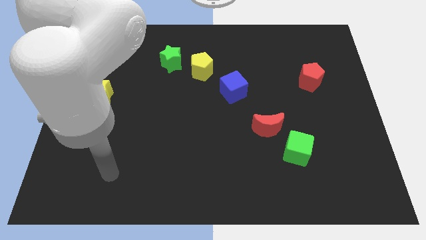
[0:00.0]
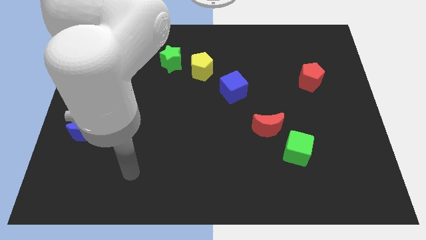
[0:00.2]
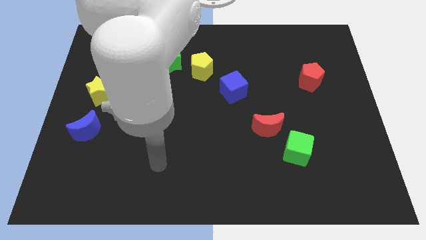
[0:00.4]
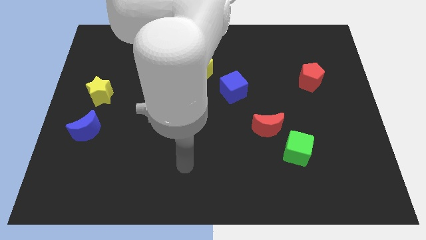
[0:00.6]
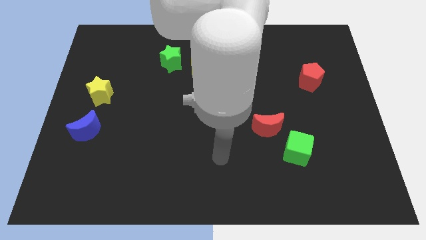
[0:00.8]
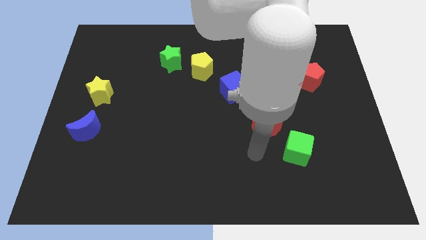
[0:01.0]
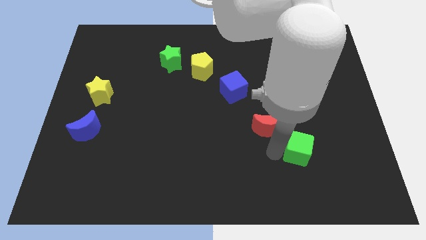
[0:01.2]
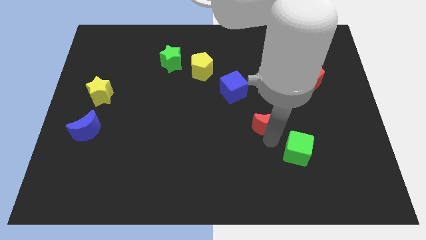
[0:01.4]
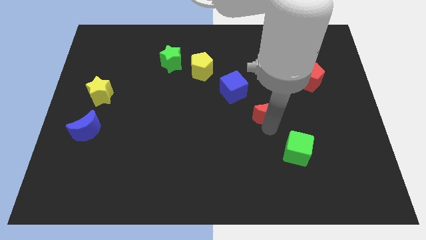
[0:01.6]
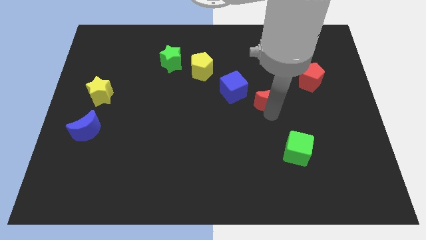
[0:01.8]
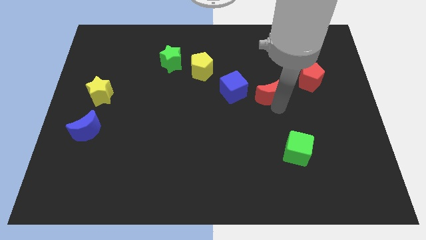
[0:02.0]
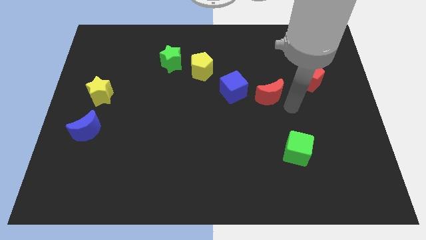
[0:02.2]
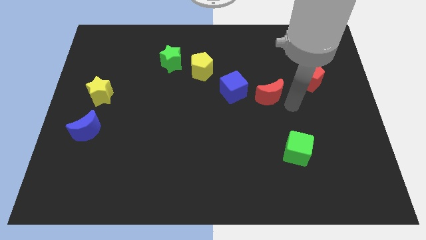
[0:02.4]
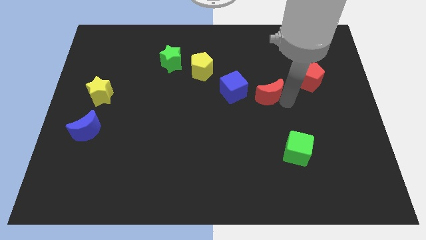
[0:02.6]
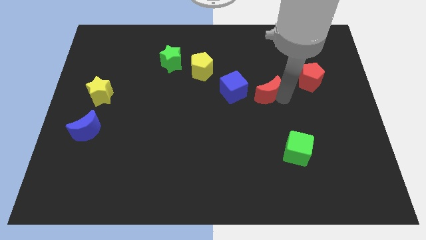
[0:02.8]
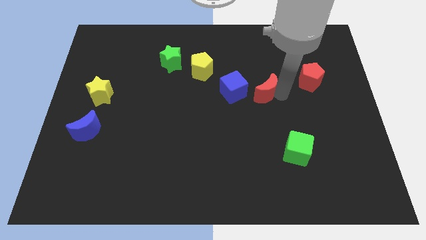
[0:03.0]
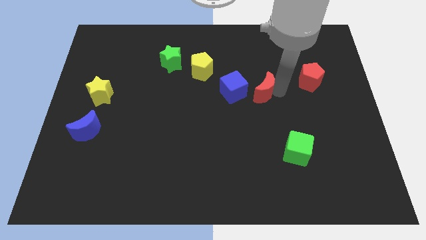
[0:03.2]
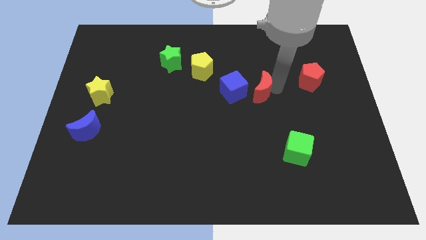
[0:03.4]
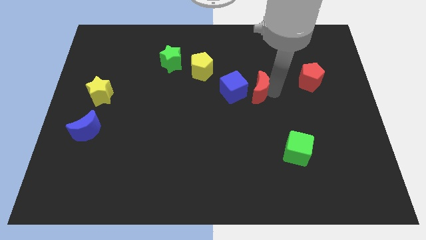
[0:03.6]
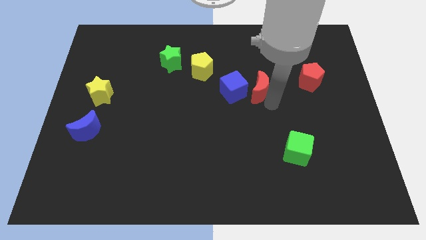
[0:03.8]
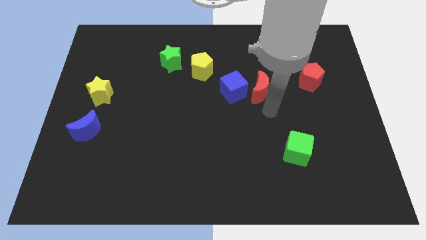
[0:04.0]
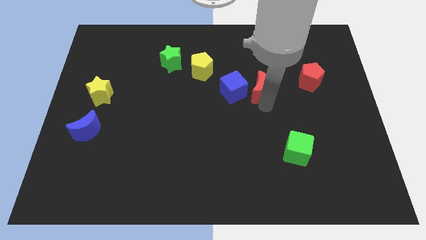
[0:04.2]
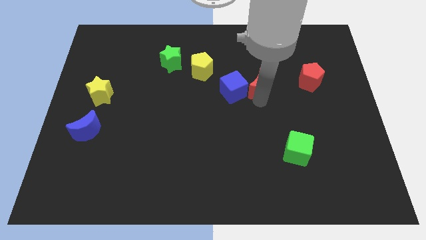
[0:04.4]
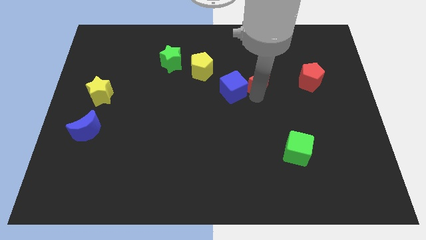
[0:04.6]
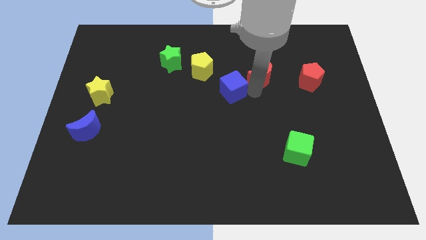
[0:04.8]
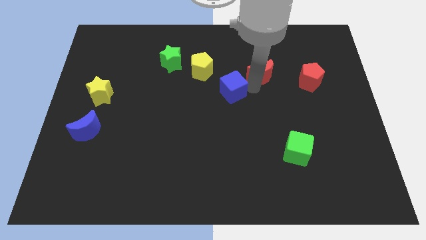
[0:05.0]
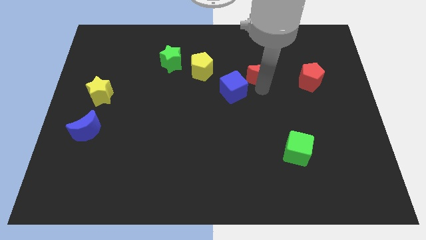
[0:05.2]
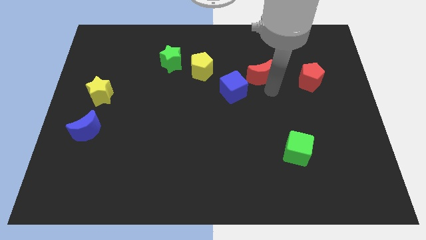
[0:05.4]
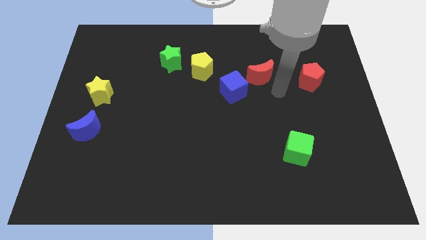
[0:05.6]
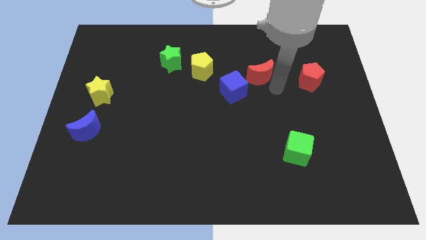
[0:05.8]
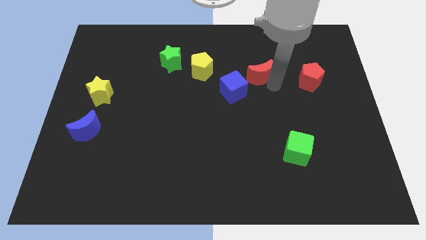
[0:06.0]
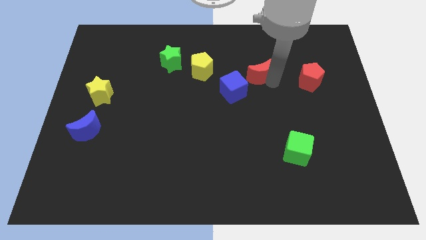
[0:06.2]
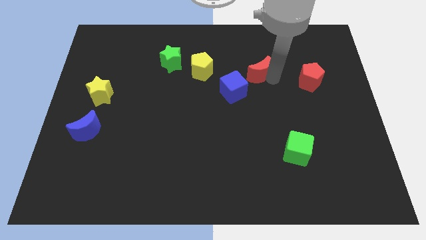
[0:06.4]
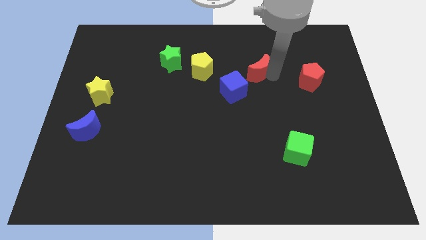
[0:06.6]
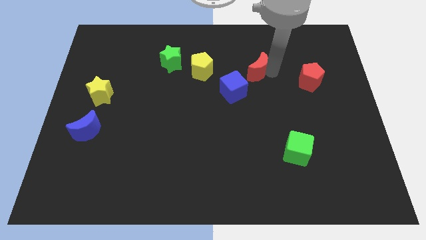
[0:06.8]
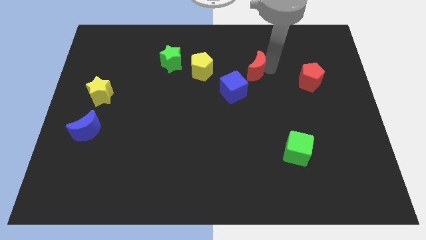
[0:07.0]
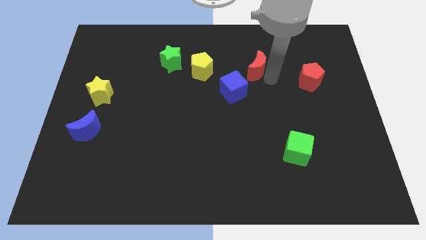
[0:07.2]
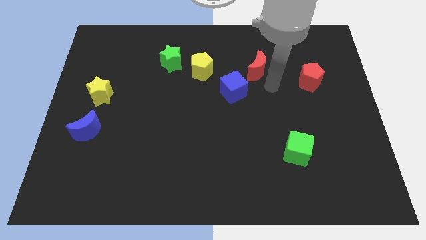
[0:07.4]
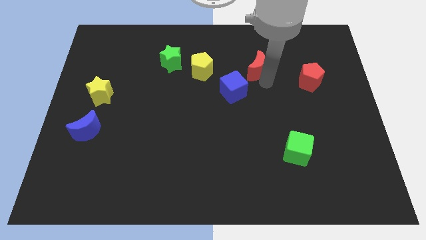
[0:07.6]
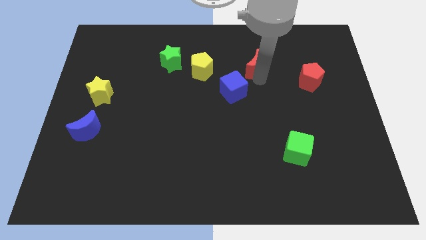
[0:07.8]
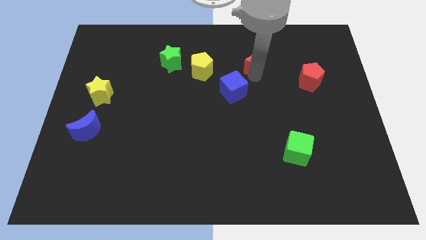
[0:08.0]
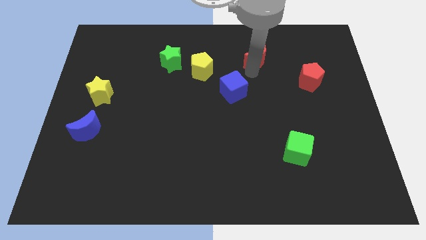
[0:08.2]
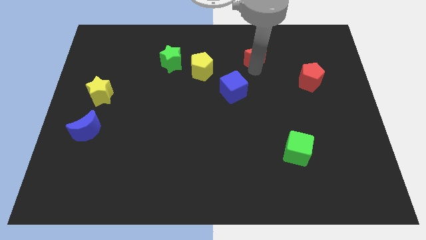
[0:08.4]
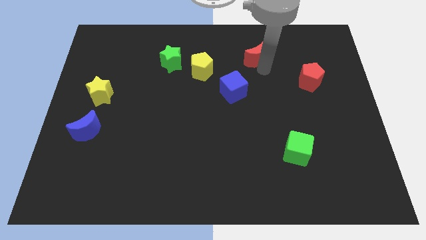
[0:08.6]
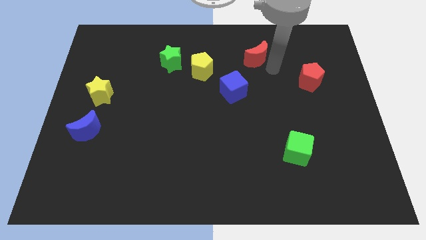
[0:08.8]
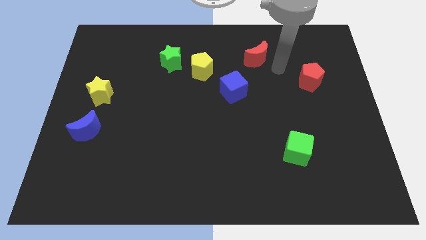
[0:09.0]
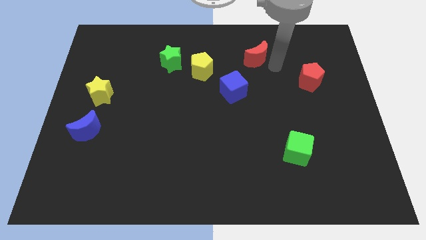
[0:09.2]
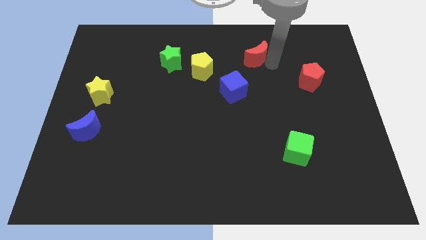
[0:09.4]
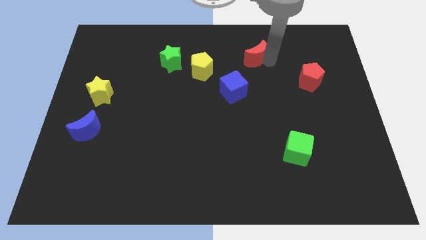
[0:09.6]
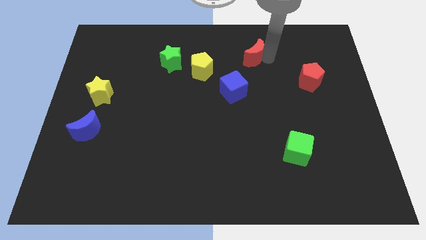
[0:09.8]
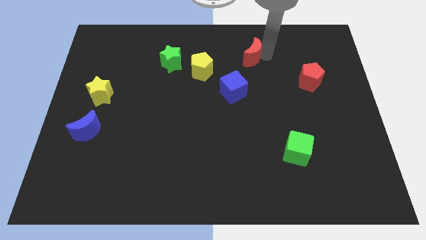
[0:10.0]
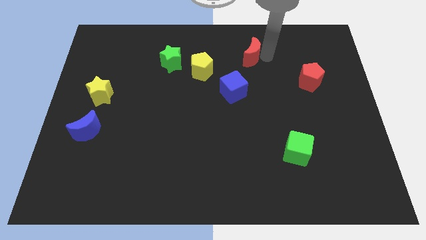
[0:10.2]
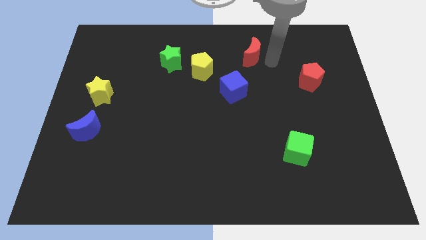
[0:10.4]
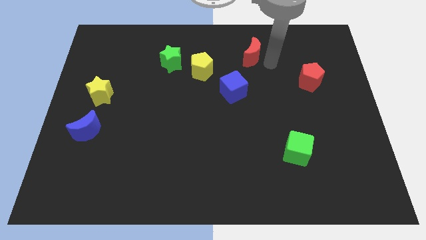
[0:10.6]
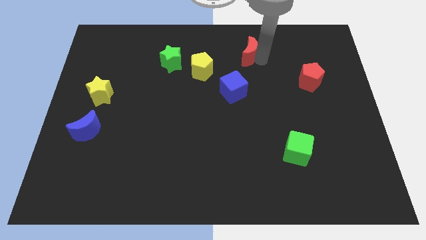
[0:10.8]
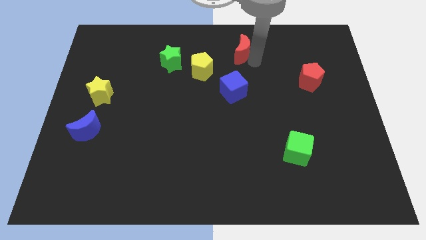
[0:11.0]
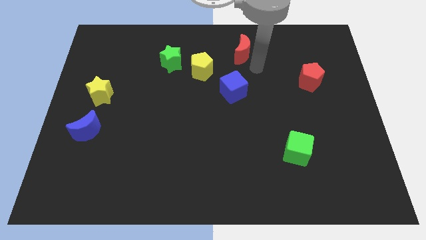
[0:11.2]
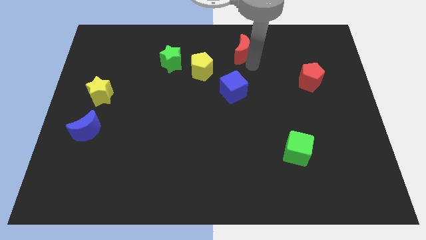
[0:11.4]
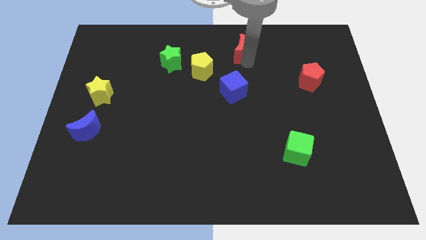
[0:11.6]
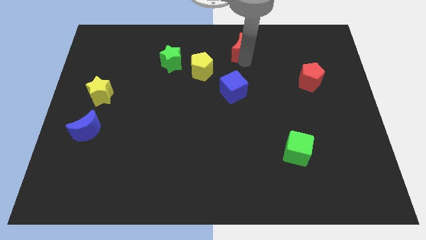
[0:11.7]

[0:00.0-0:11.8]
put the red moon to the top

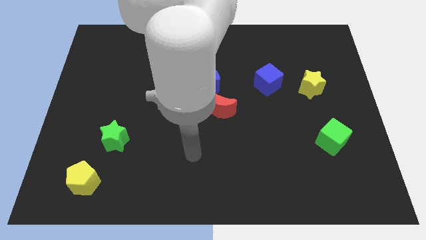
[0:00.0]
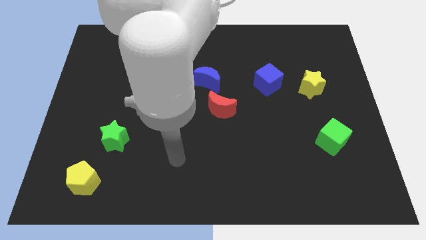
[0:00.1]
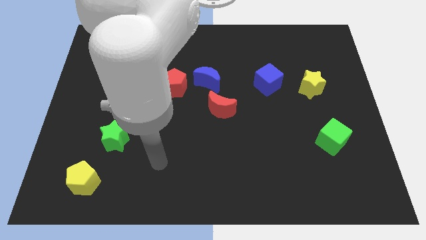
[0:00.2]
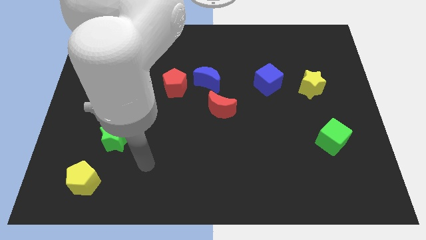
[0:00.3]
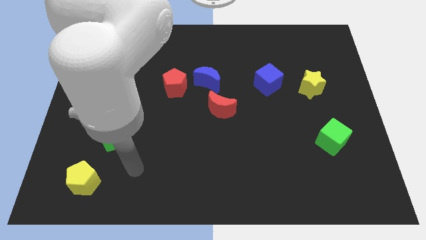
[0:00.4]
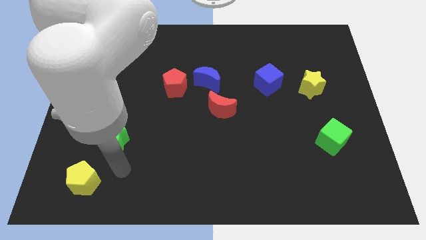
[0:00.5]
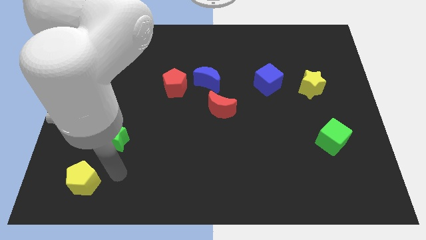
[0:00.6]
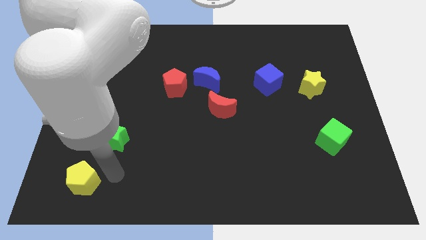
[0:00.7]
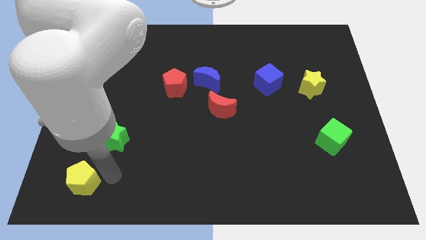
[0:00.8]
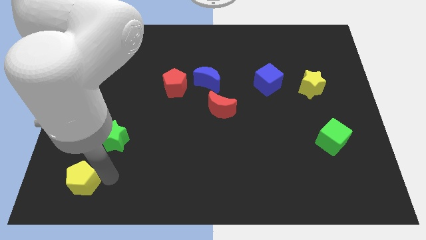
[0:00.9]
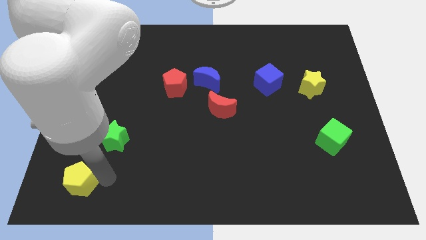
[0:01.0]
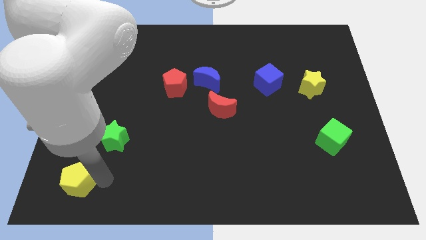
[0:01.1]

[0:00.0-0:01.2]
slide the yellow pentagon to the bottom left corner
